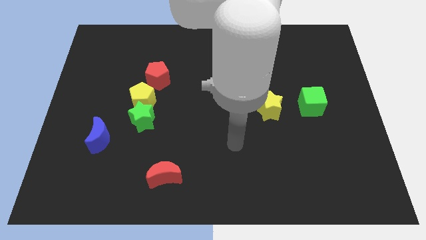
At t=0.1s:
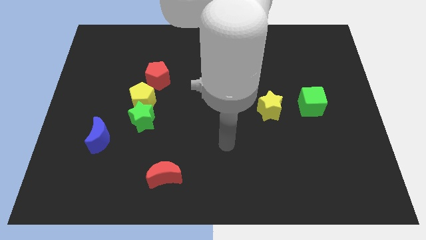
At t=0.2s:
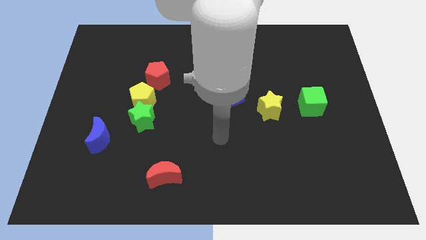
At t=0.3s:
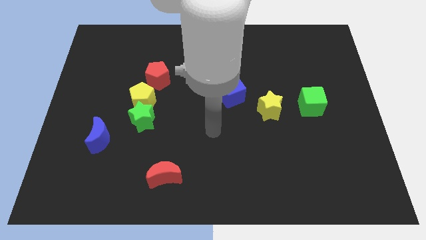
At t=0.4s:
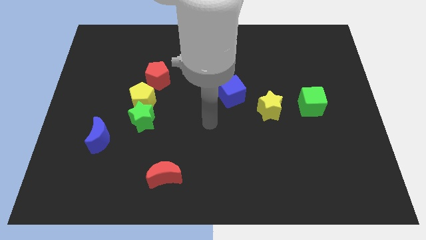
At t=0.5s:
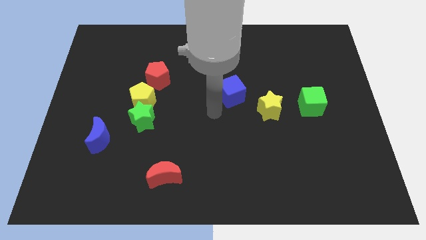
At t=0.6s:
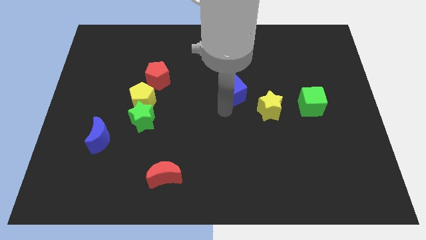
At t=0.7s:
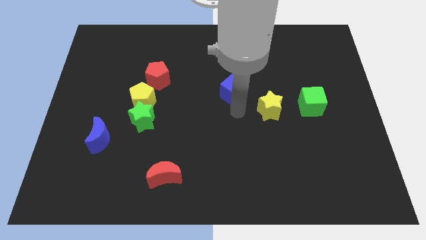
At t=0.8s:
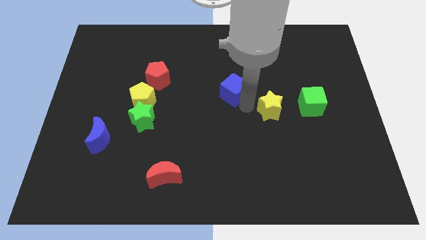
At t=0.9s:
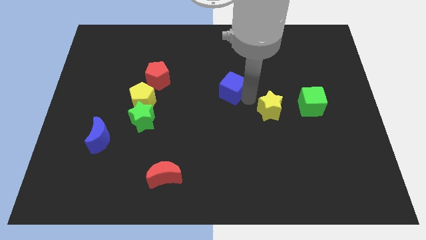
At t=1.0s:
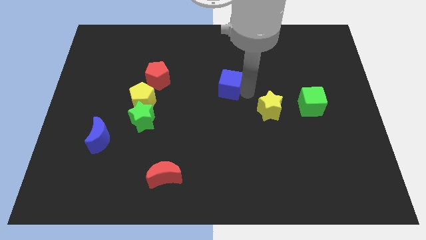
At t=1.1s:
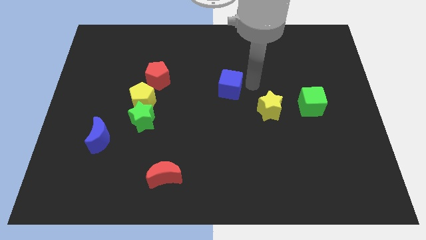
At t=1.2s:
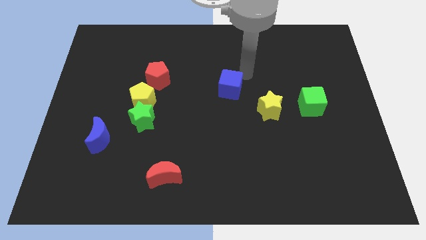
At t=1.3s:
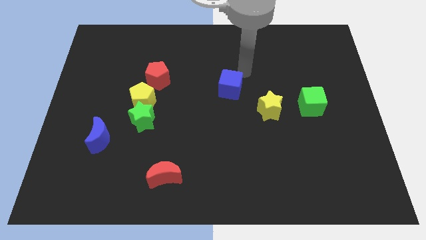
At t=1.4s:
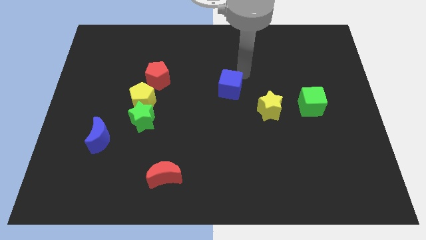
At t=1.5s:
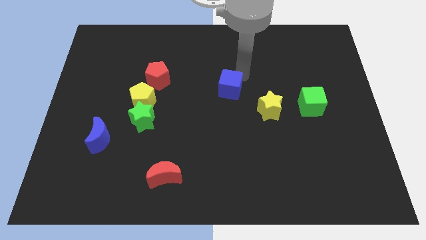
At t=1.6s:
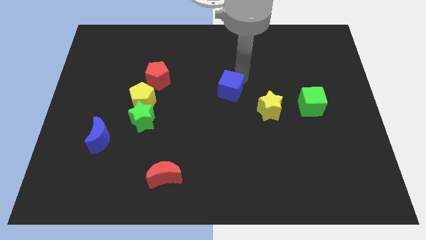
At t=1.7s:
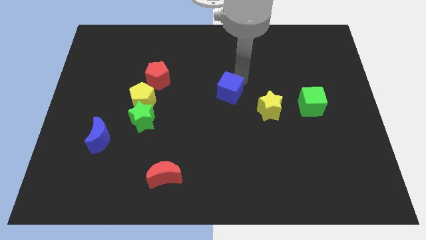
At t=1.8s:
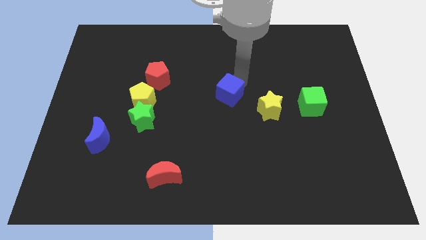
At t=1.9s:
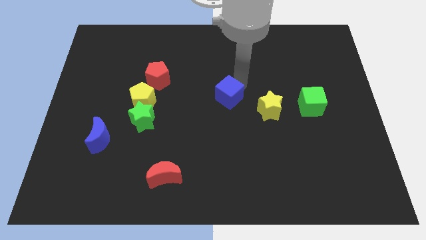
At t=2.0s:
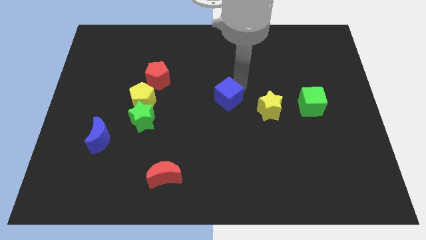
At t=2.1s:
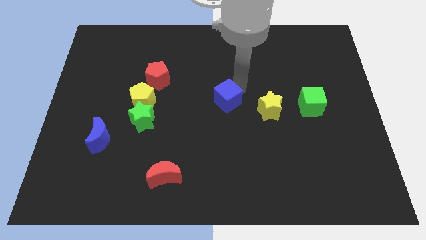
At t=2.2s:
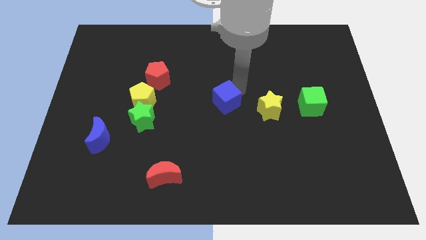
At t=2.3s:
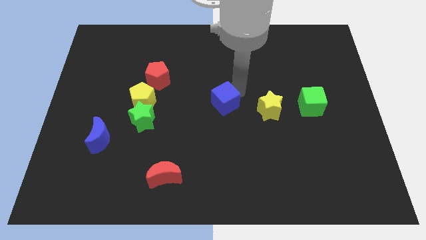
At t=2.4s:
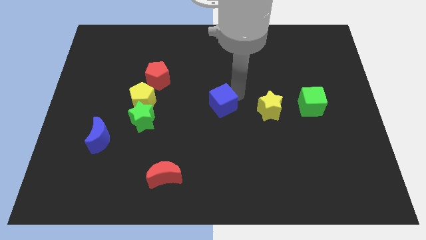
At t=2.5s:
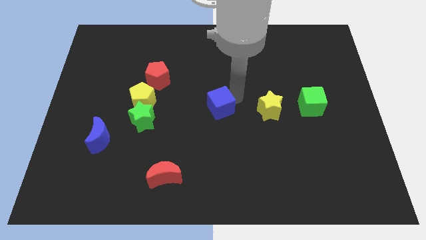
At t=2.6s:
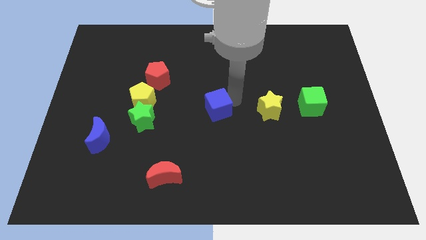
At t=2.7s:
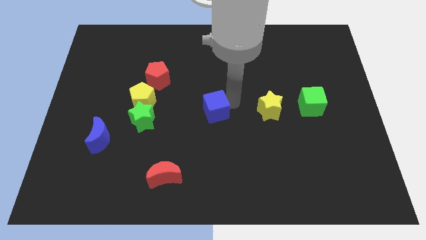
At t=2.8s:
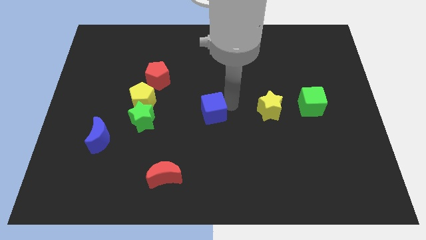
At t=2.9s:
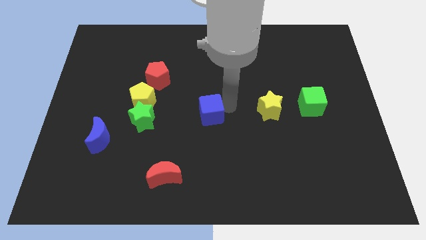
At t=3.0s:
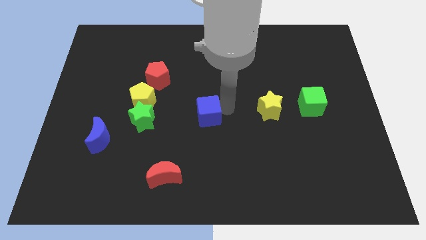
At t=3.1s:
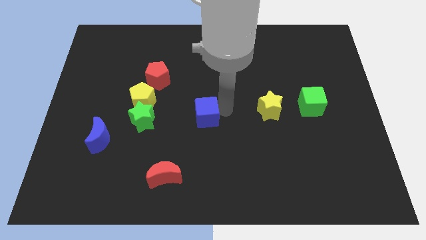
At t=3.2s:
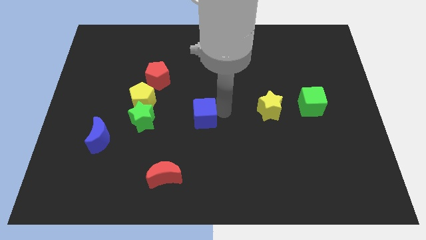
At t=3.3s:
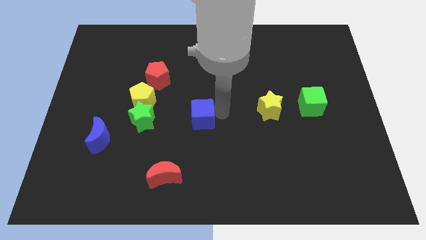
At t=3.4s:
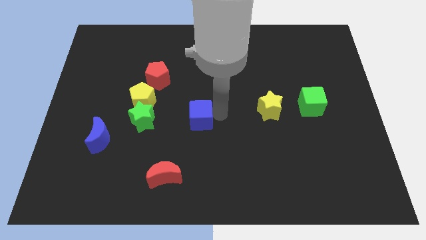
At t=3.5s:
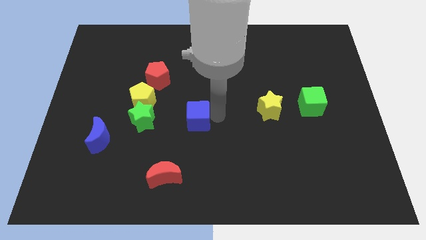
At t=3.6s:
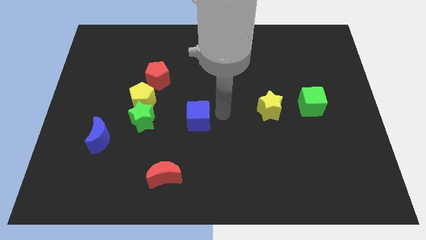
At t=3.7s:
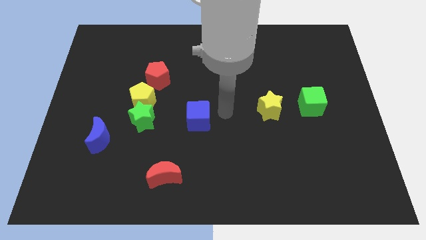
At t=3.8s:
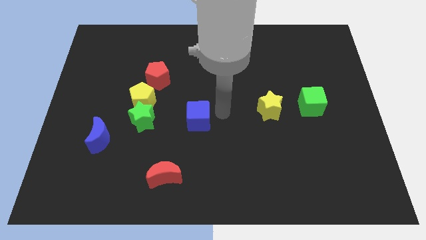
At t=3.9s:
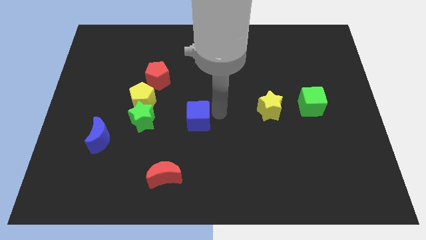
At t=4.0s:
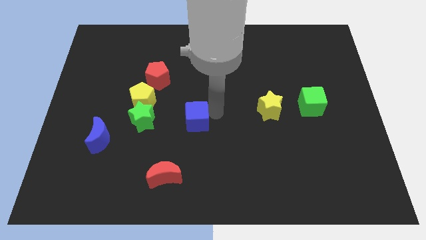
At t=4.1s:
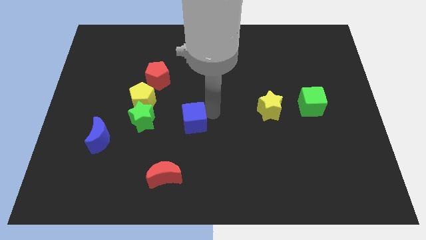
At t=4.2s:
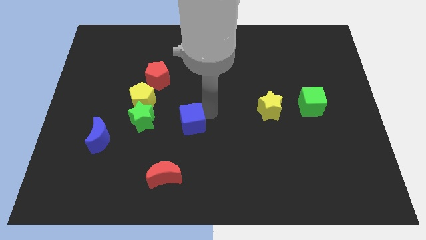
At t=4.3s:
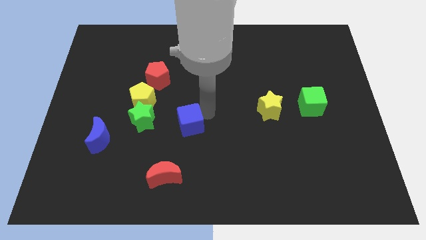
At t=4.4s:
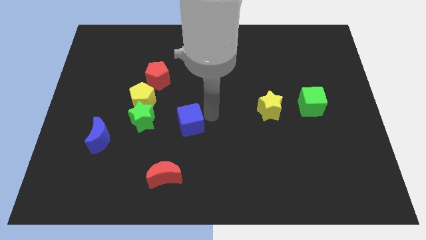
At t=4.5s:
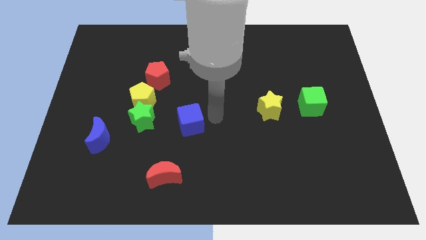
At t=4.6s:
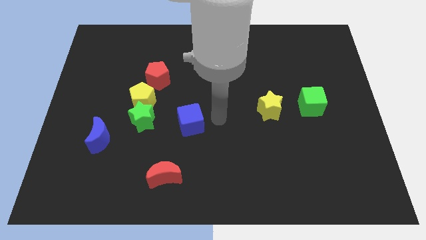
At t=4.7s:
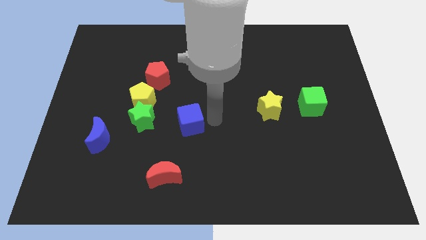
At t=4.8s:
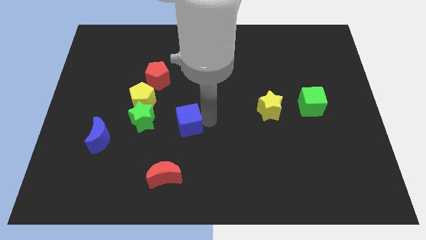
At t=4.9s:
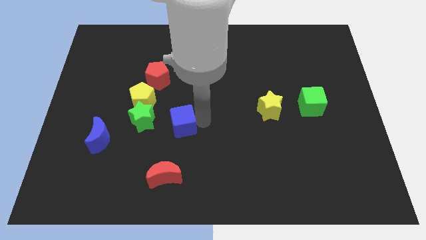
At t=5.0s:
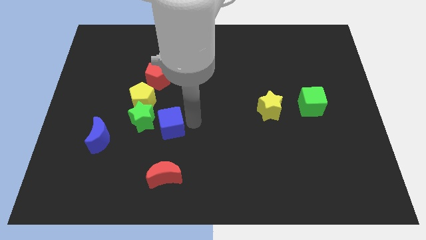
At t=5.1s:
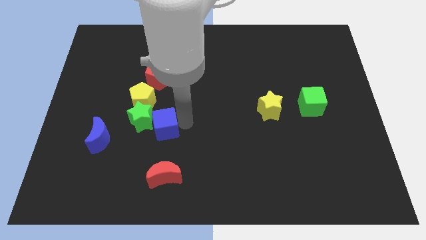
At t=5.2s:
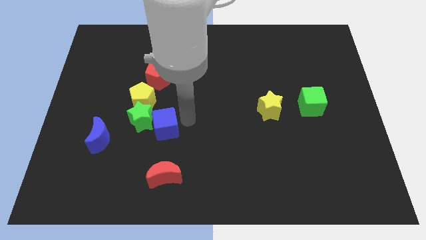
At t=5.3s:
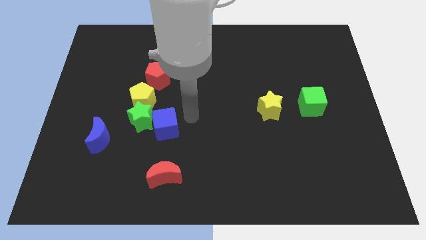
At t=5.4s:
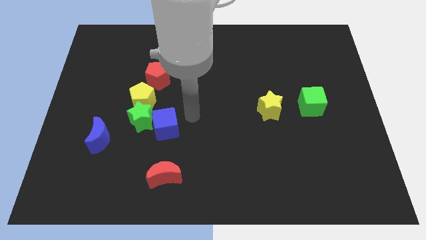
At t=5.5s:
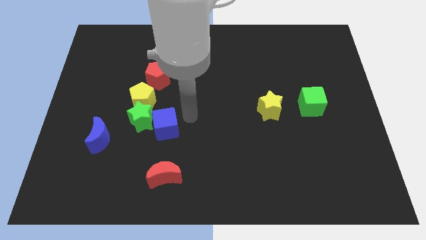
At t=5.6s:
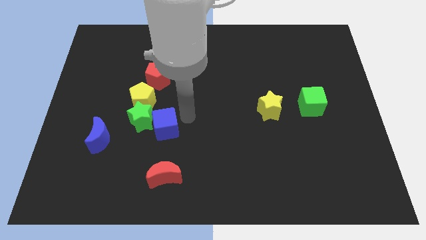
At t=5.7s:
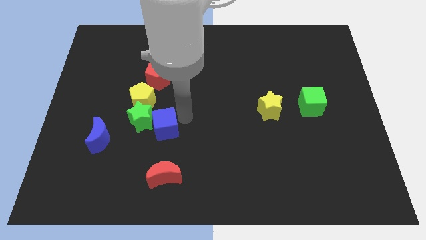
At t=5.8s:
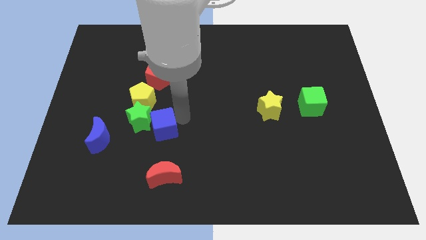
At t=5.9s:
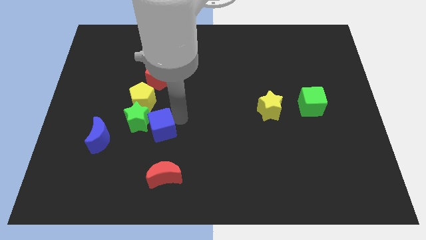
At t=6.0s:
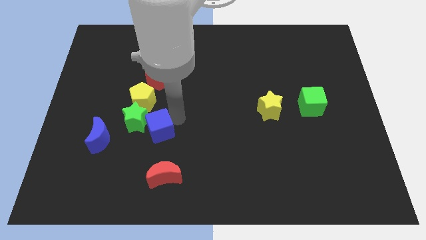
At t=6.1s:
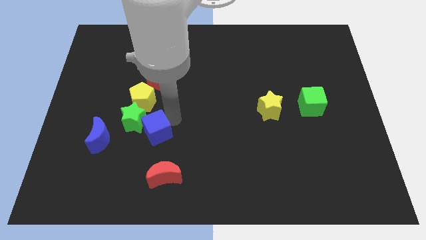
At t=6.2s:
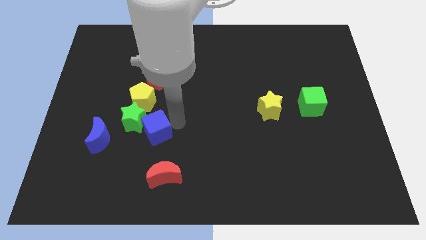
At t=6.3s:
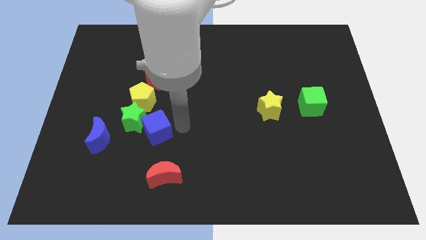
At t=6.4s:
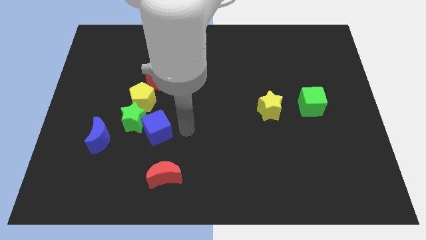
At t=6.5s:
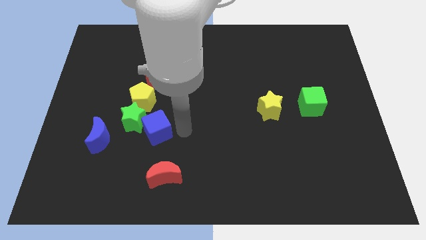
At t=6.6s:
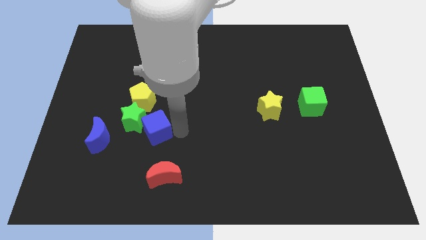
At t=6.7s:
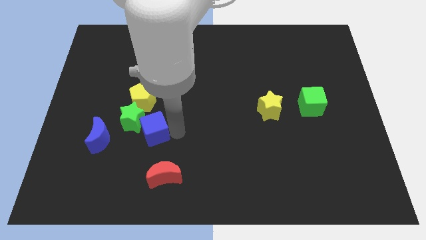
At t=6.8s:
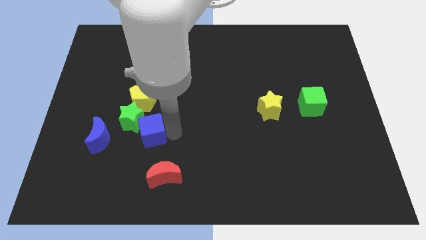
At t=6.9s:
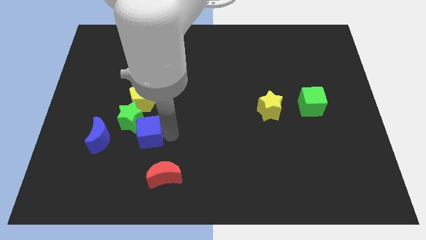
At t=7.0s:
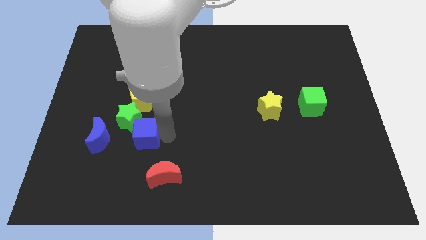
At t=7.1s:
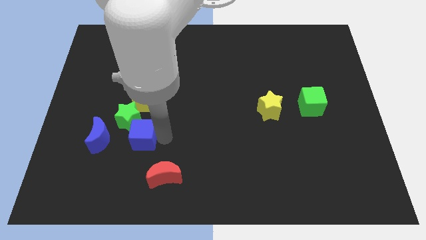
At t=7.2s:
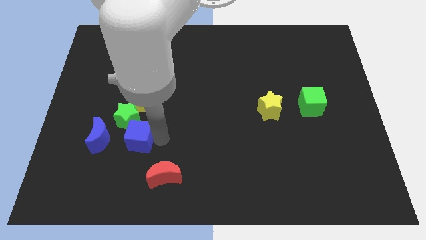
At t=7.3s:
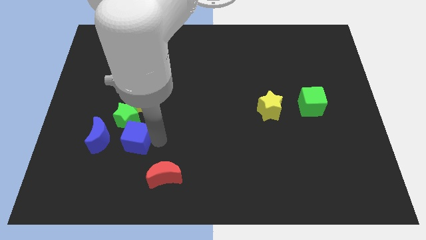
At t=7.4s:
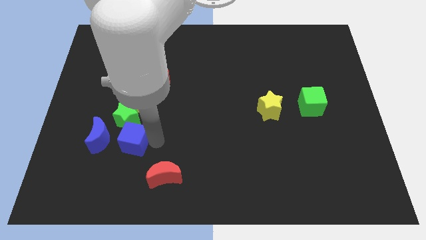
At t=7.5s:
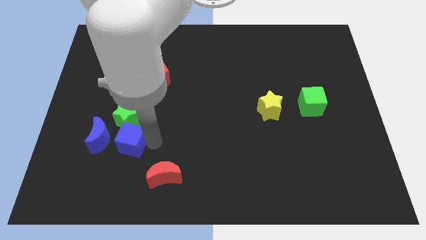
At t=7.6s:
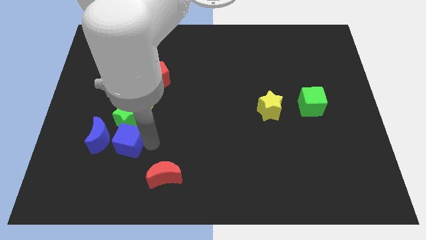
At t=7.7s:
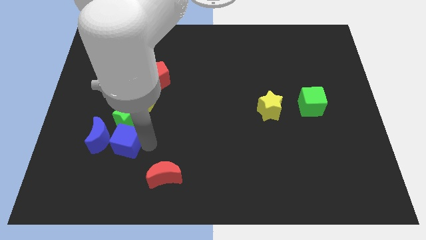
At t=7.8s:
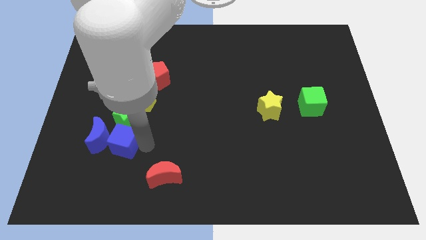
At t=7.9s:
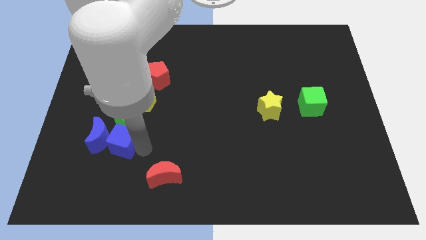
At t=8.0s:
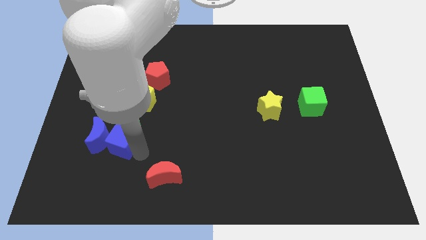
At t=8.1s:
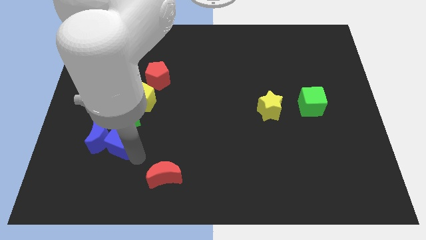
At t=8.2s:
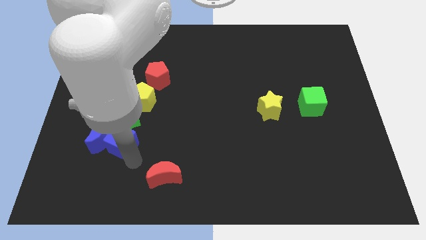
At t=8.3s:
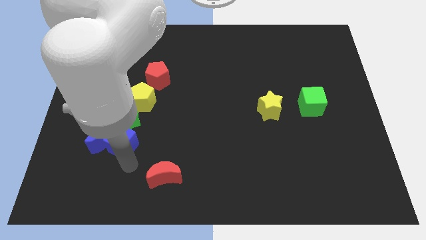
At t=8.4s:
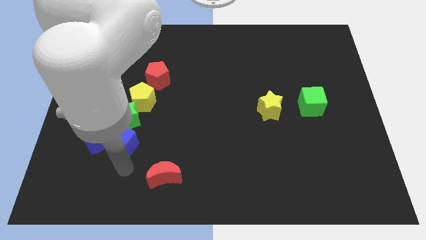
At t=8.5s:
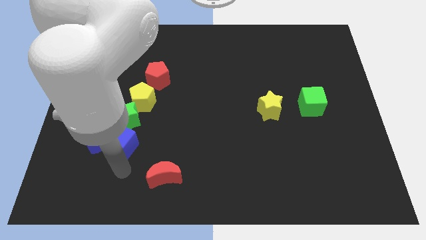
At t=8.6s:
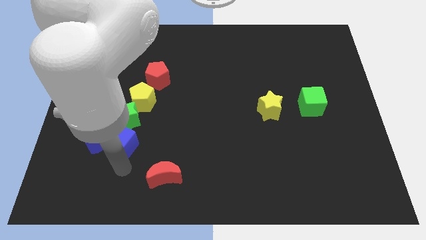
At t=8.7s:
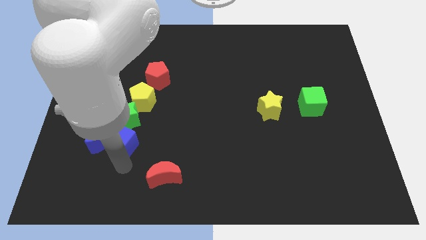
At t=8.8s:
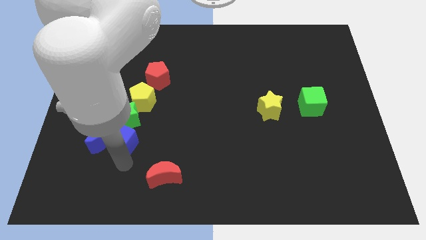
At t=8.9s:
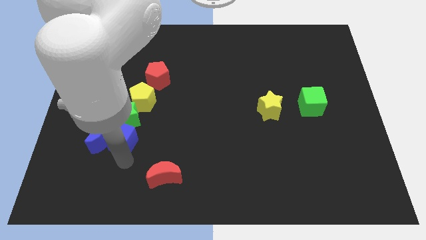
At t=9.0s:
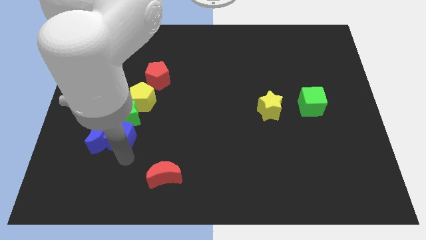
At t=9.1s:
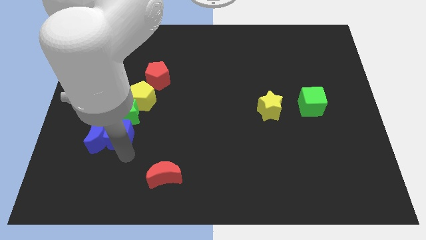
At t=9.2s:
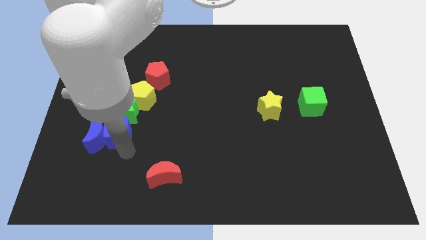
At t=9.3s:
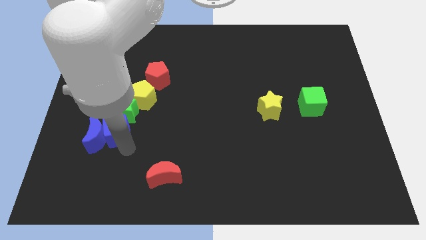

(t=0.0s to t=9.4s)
push the blue cube diagonally down and to the left of the yellow pentagon
